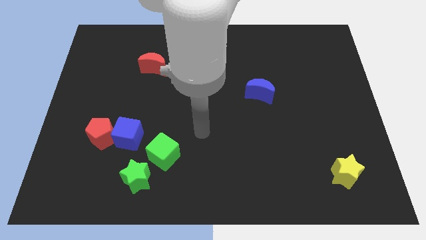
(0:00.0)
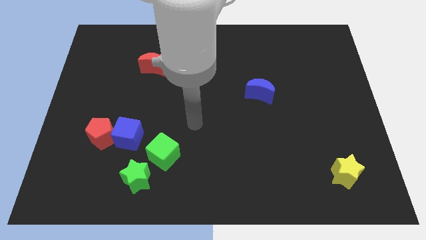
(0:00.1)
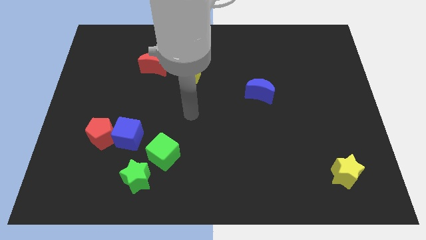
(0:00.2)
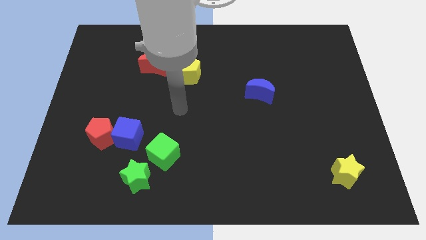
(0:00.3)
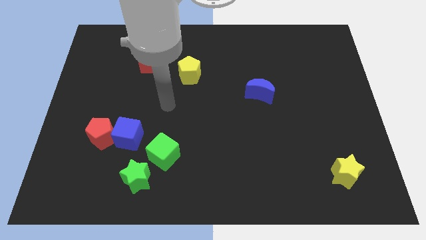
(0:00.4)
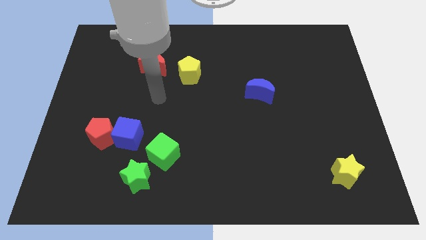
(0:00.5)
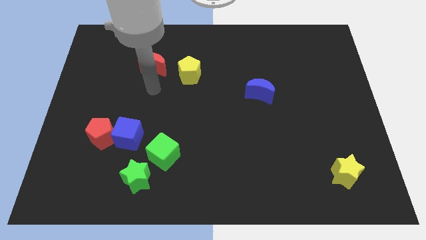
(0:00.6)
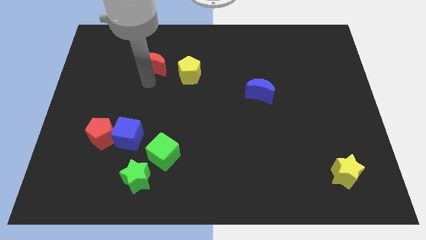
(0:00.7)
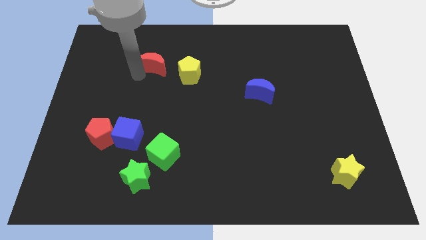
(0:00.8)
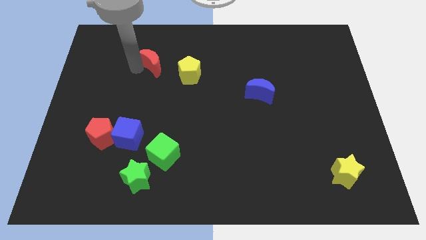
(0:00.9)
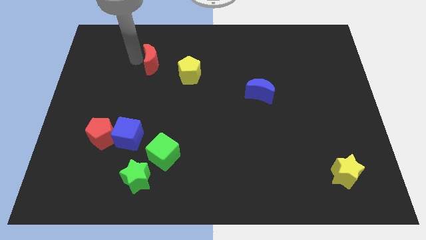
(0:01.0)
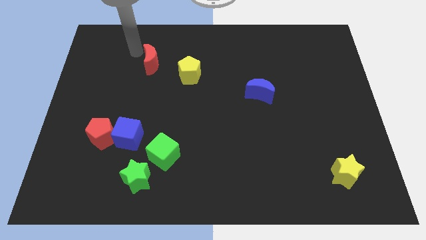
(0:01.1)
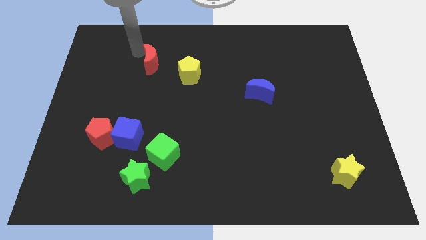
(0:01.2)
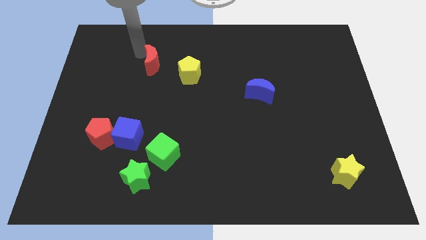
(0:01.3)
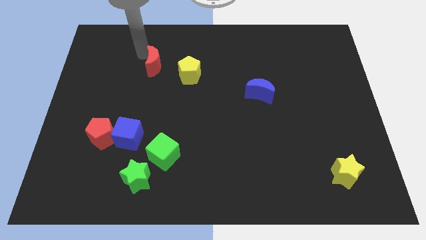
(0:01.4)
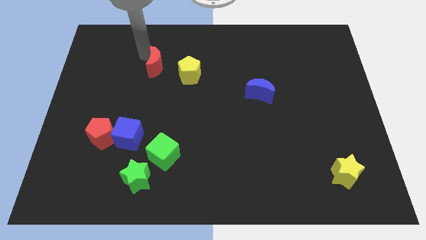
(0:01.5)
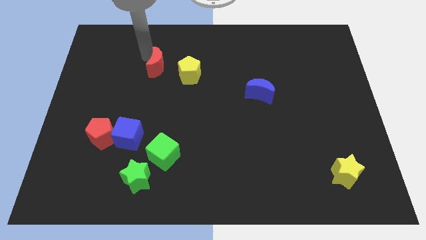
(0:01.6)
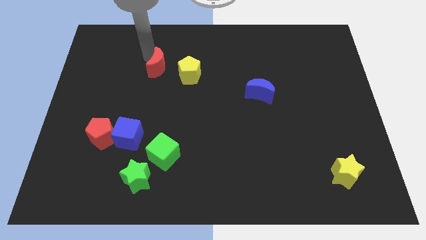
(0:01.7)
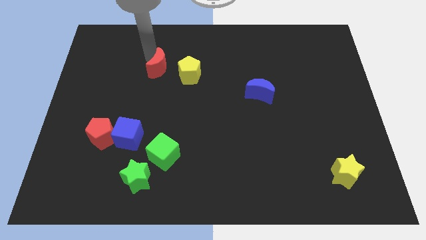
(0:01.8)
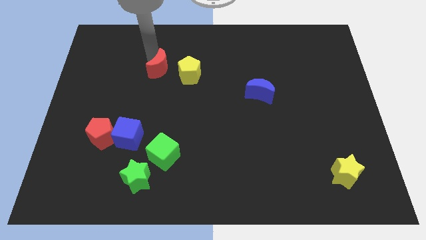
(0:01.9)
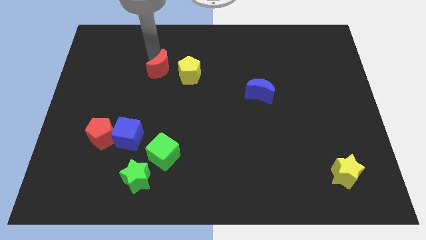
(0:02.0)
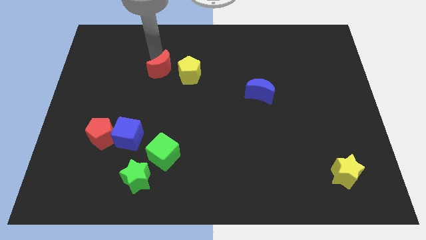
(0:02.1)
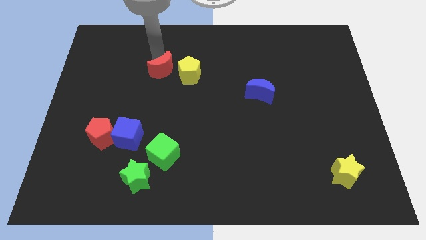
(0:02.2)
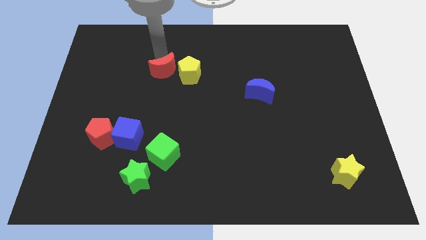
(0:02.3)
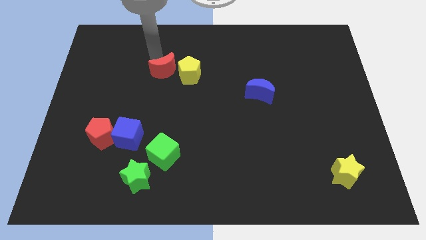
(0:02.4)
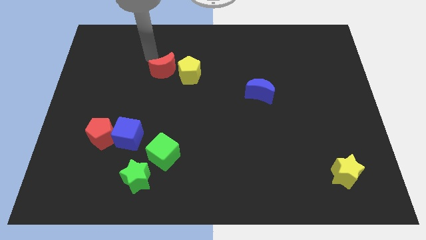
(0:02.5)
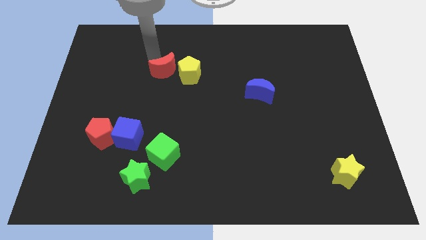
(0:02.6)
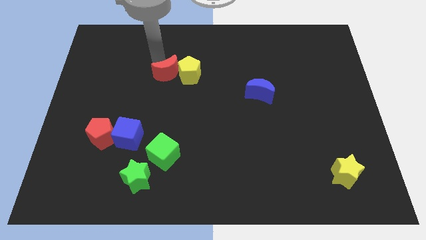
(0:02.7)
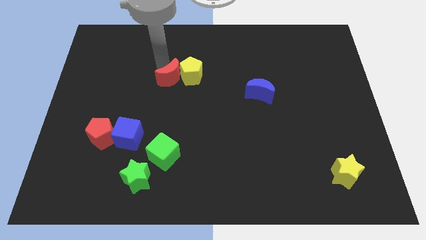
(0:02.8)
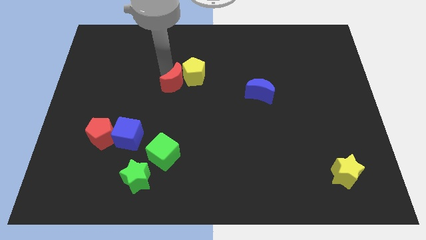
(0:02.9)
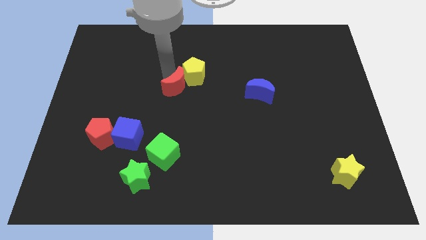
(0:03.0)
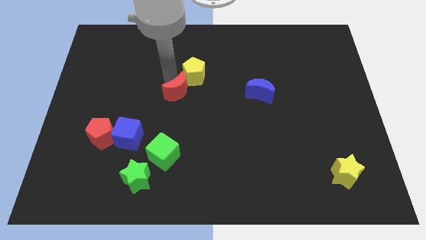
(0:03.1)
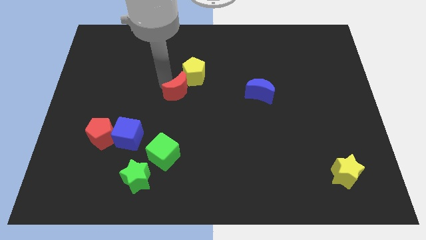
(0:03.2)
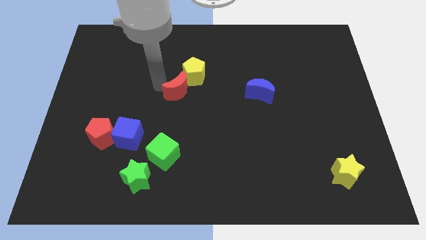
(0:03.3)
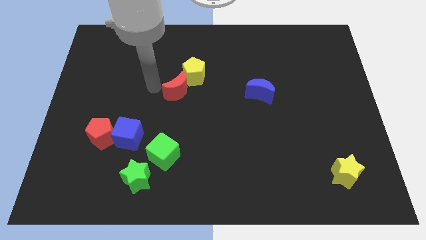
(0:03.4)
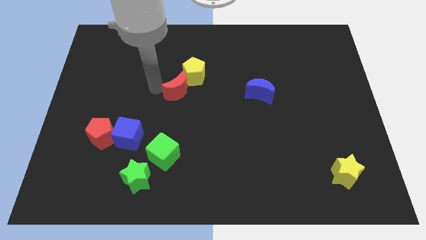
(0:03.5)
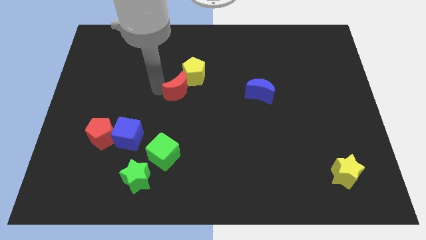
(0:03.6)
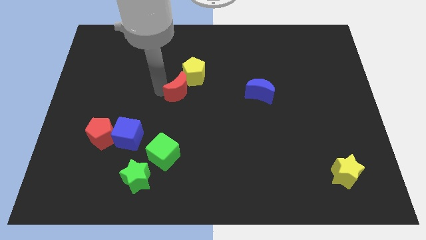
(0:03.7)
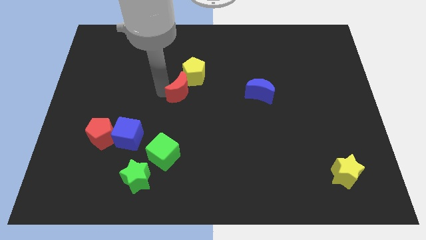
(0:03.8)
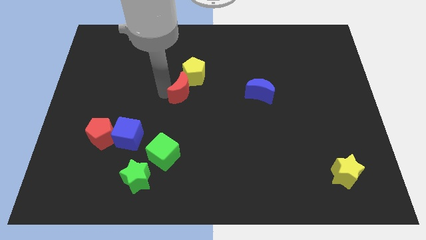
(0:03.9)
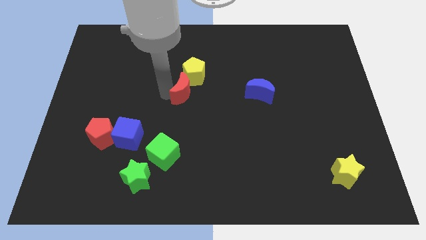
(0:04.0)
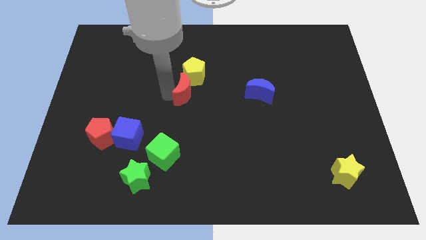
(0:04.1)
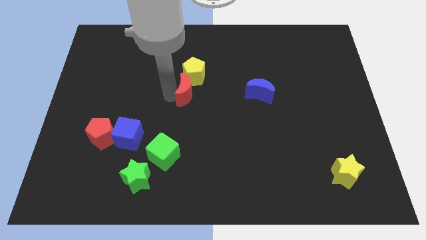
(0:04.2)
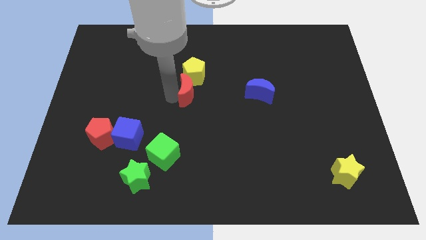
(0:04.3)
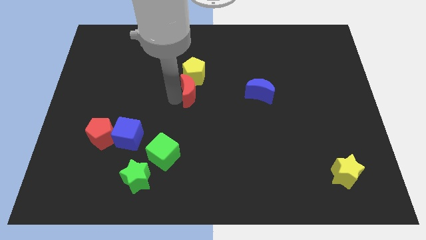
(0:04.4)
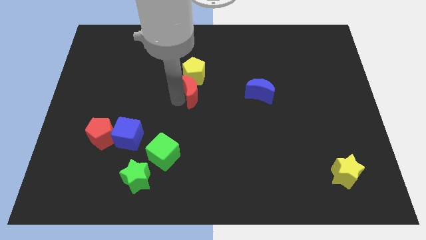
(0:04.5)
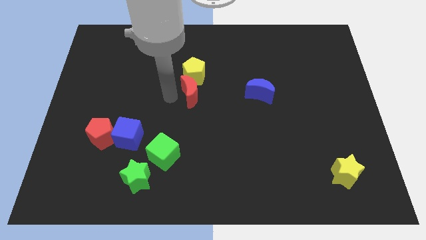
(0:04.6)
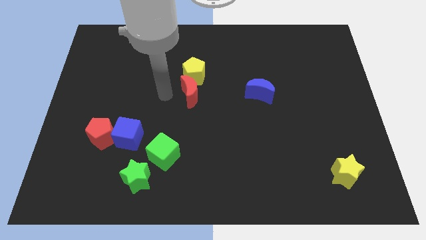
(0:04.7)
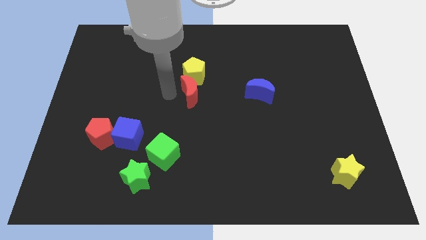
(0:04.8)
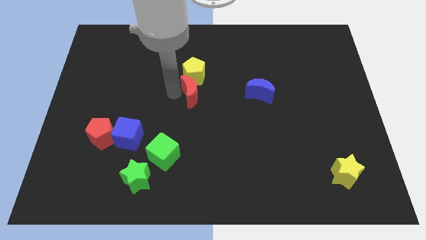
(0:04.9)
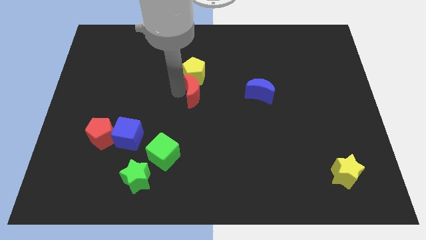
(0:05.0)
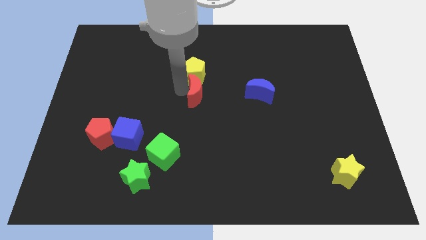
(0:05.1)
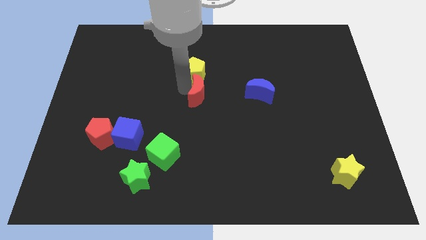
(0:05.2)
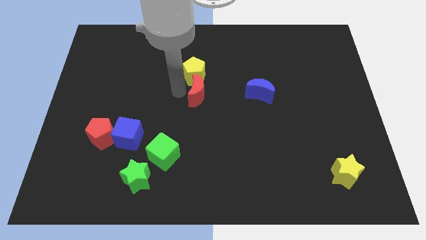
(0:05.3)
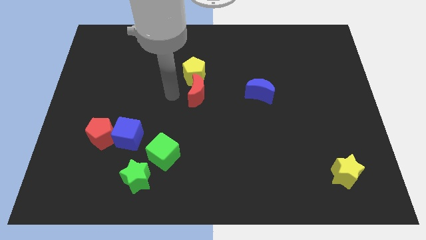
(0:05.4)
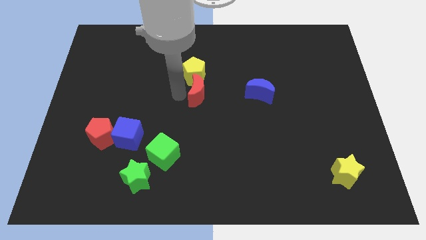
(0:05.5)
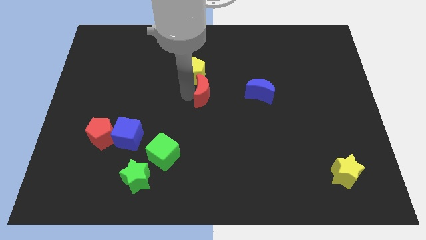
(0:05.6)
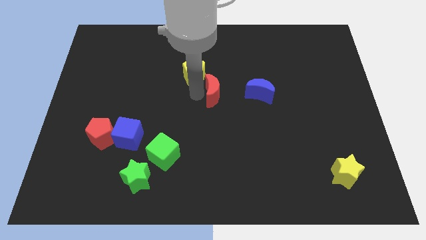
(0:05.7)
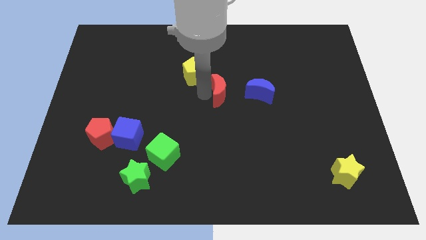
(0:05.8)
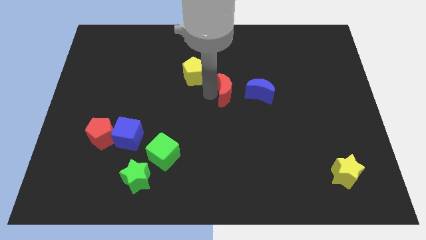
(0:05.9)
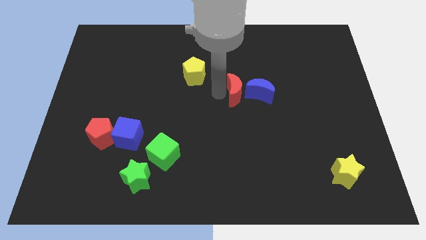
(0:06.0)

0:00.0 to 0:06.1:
slide the red moon next to the blue moon

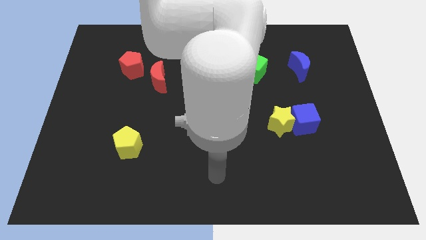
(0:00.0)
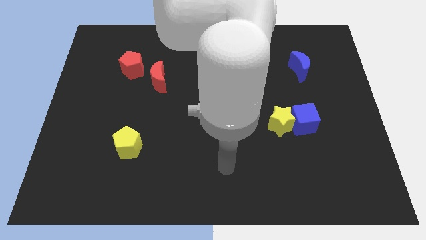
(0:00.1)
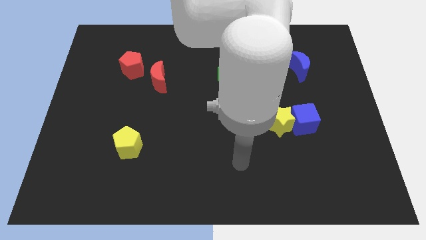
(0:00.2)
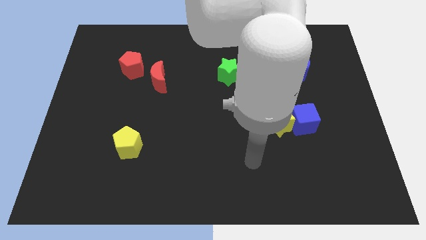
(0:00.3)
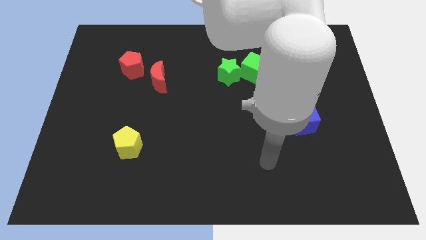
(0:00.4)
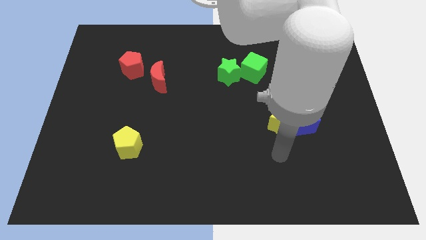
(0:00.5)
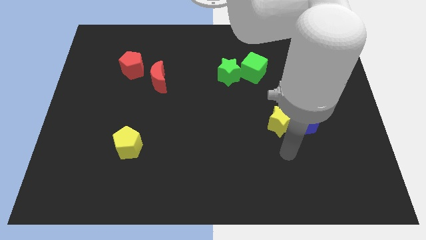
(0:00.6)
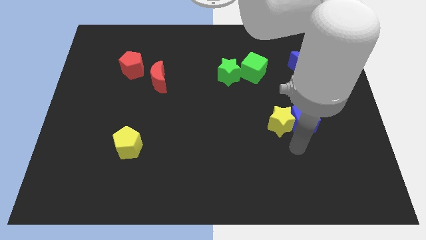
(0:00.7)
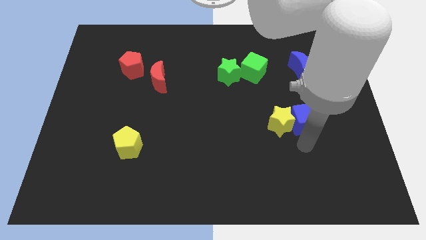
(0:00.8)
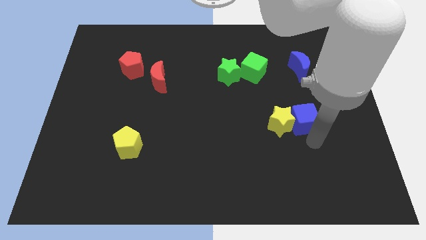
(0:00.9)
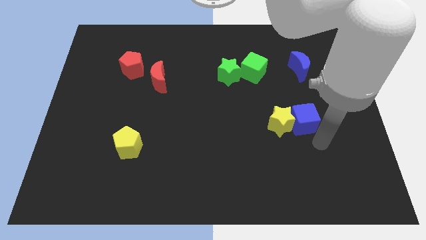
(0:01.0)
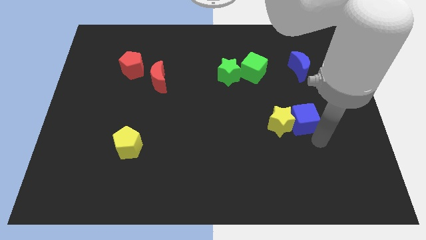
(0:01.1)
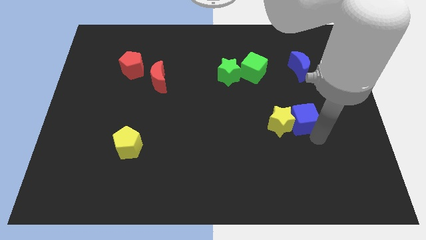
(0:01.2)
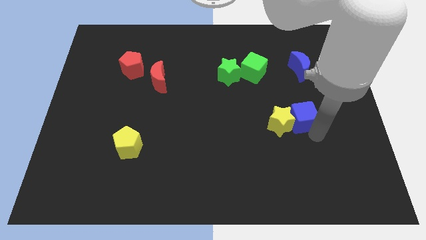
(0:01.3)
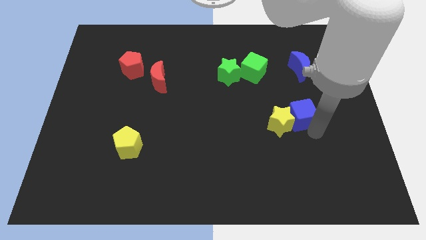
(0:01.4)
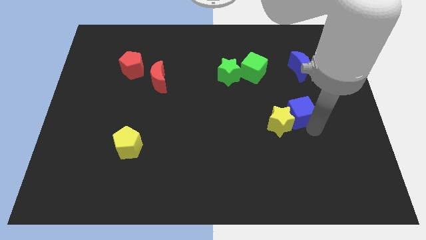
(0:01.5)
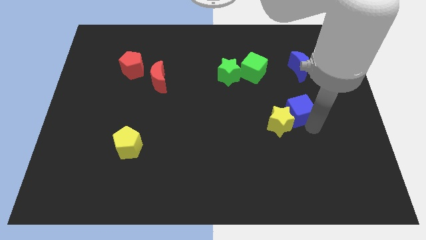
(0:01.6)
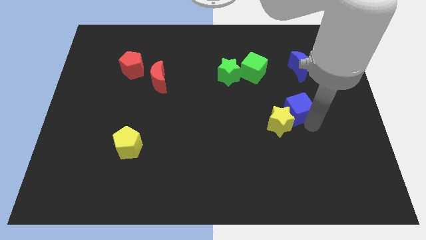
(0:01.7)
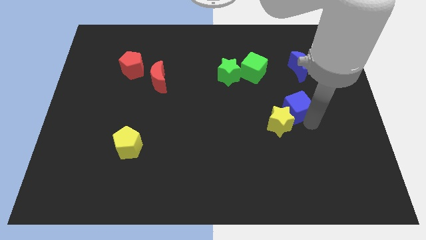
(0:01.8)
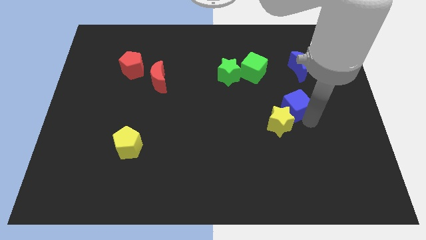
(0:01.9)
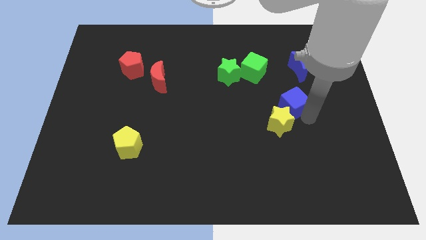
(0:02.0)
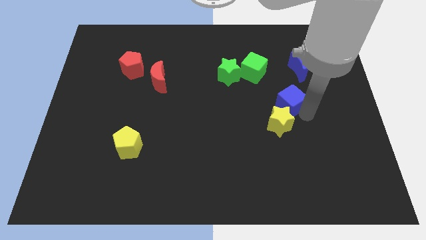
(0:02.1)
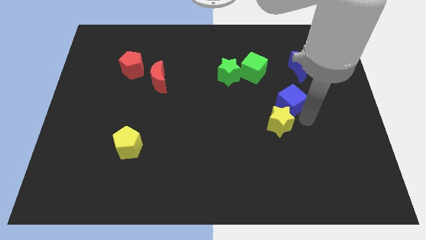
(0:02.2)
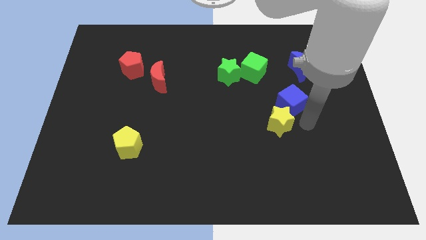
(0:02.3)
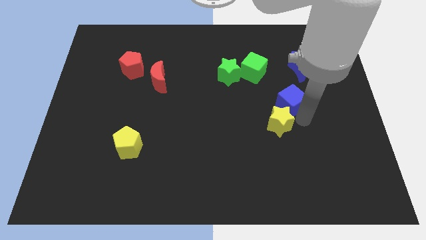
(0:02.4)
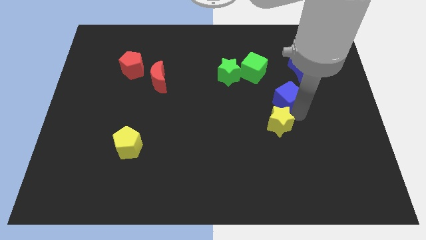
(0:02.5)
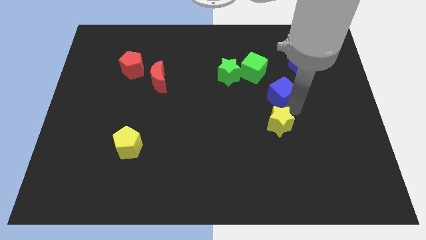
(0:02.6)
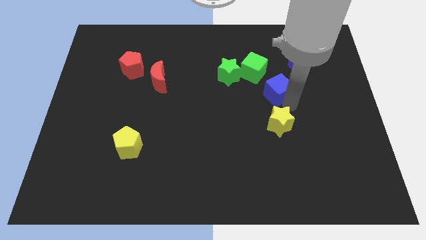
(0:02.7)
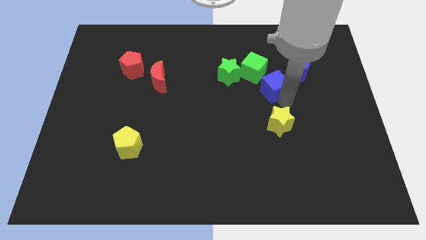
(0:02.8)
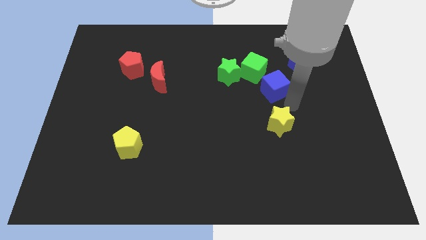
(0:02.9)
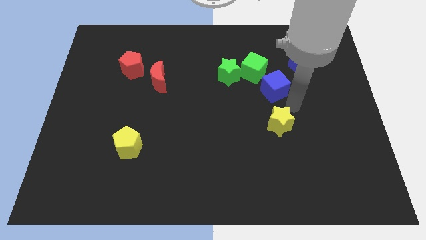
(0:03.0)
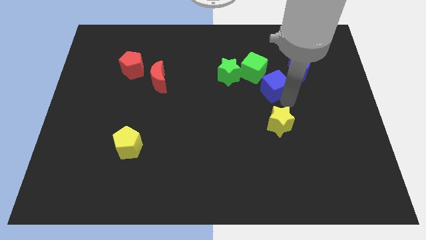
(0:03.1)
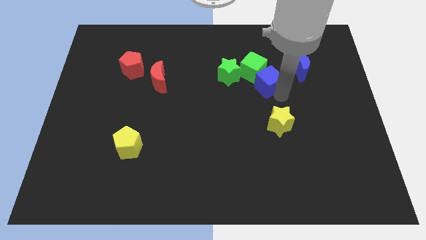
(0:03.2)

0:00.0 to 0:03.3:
slide the blue cube next to the green cube
